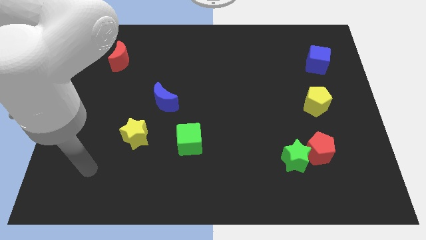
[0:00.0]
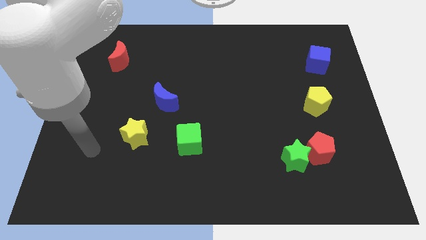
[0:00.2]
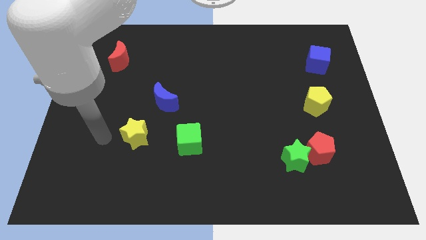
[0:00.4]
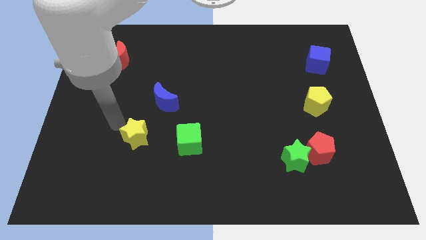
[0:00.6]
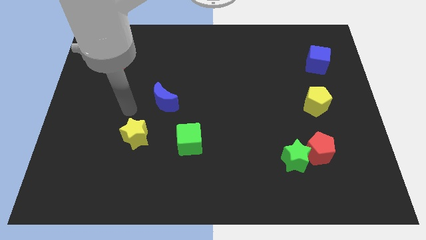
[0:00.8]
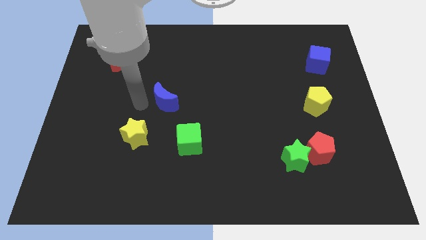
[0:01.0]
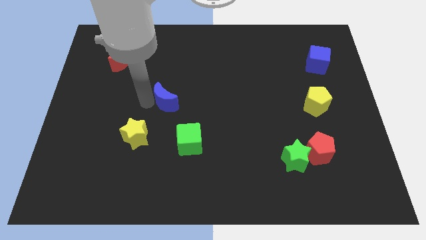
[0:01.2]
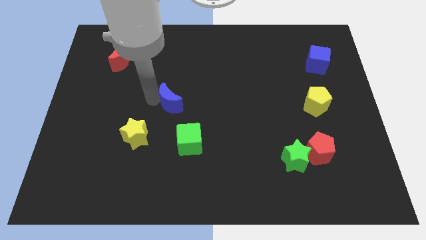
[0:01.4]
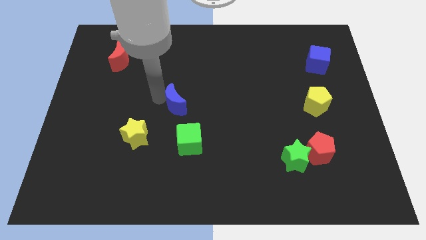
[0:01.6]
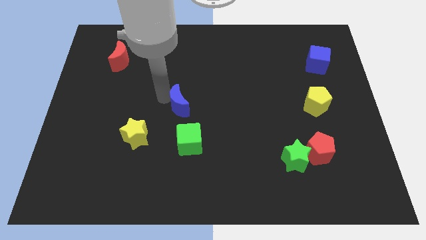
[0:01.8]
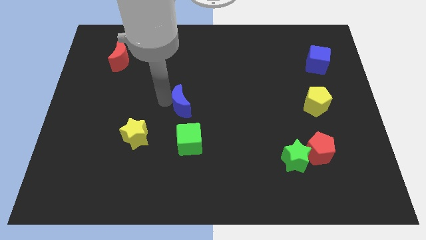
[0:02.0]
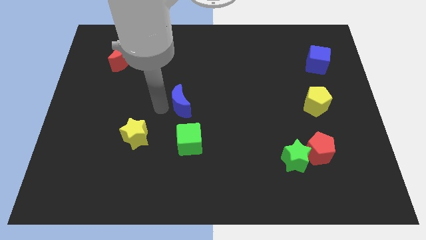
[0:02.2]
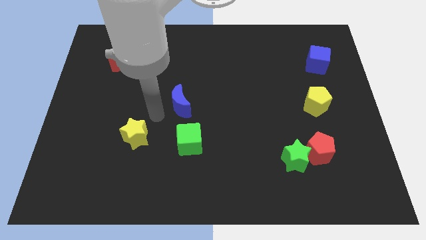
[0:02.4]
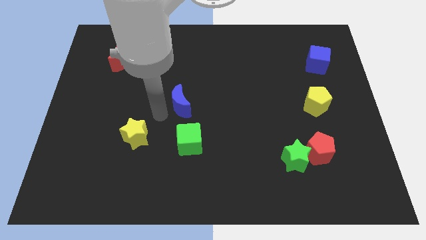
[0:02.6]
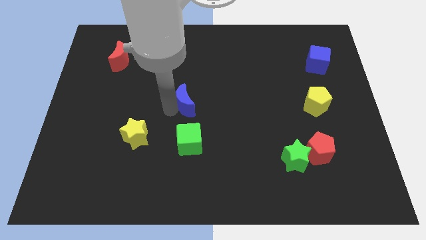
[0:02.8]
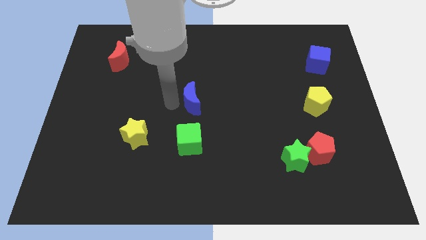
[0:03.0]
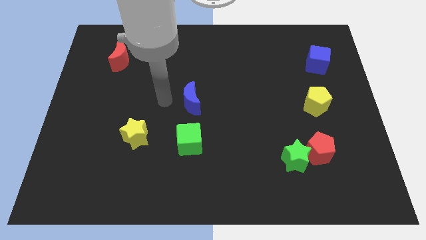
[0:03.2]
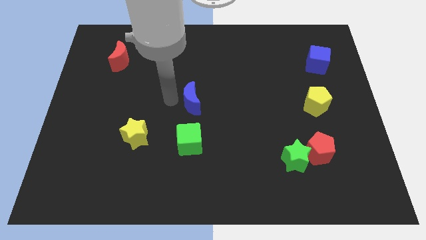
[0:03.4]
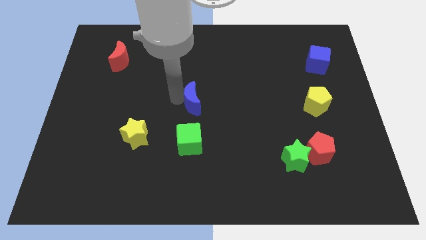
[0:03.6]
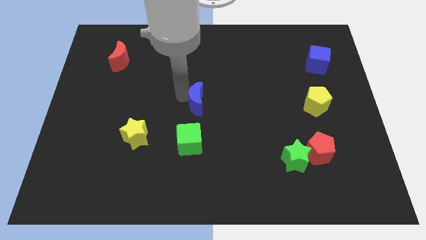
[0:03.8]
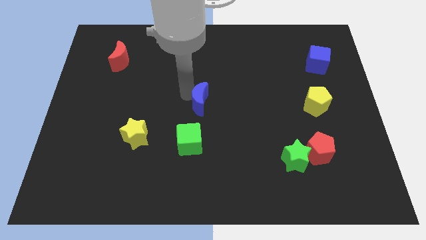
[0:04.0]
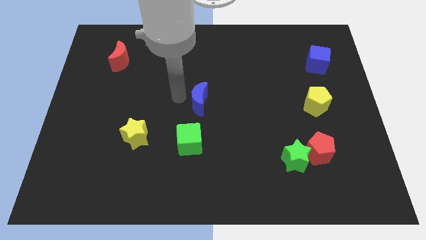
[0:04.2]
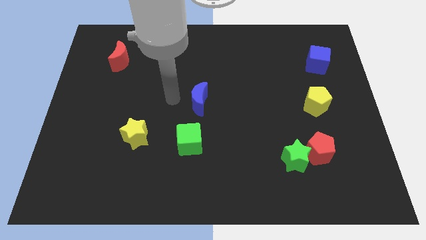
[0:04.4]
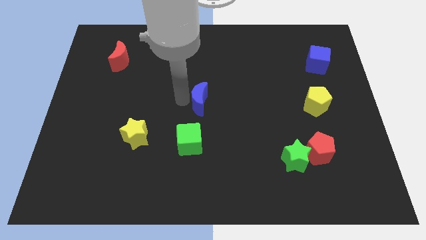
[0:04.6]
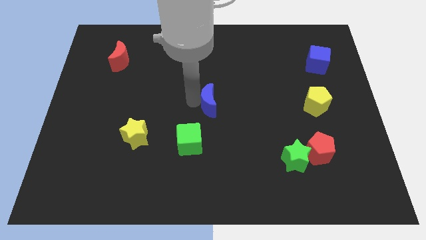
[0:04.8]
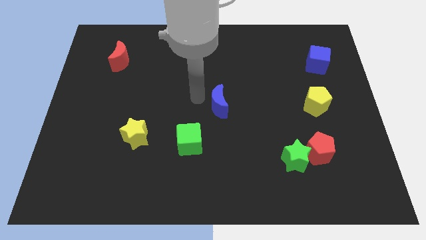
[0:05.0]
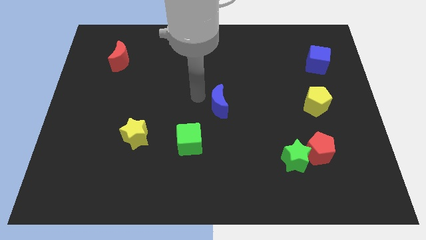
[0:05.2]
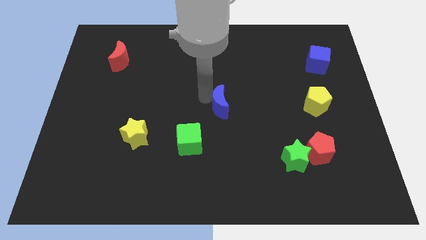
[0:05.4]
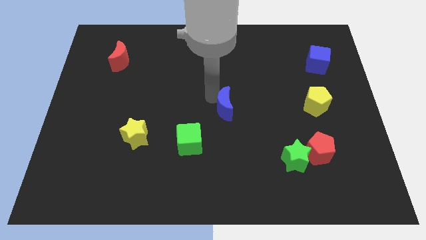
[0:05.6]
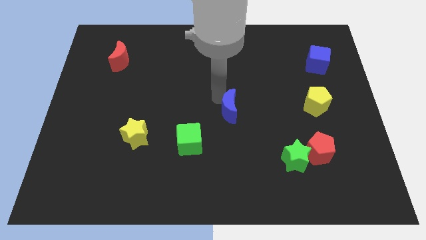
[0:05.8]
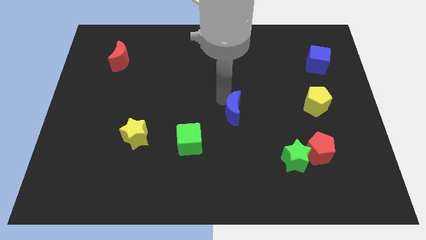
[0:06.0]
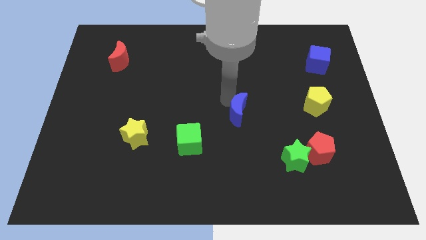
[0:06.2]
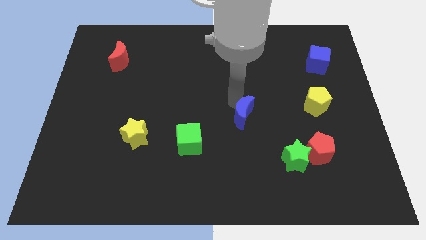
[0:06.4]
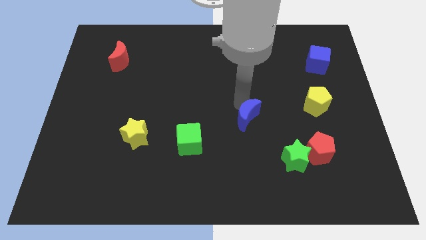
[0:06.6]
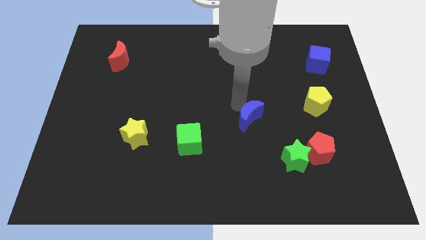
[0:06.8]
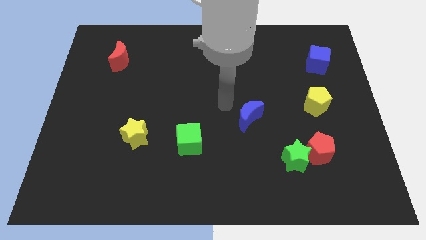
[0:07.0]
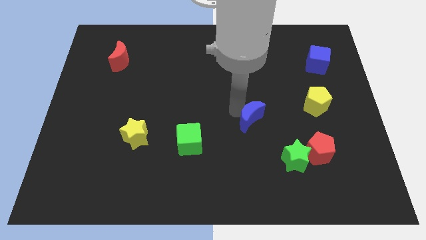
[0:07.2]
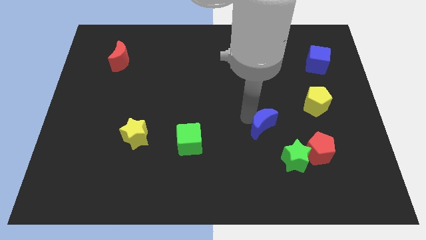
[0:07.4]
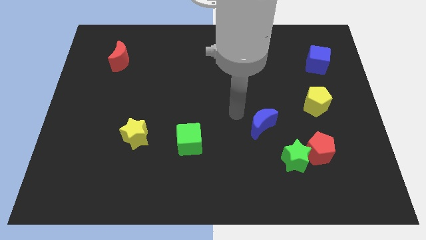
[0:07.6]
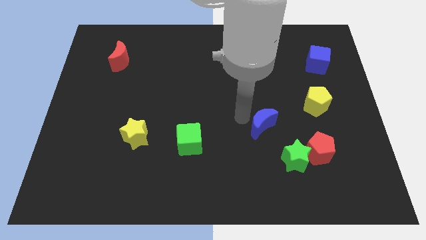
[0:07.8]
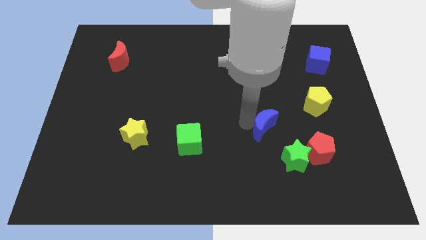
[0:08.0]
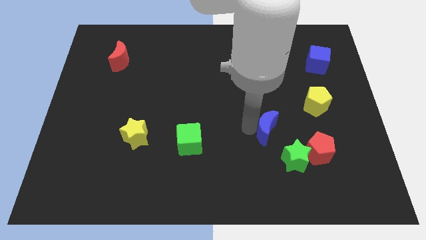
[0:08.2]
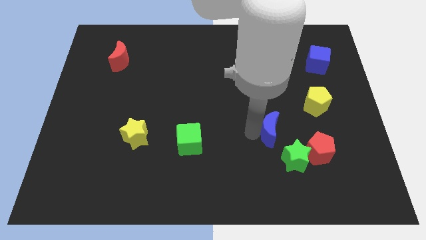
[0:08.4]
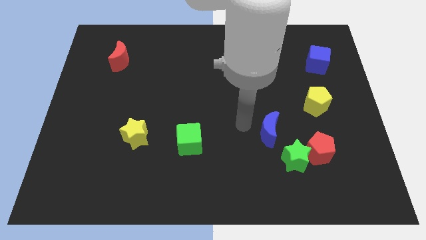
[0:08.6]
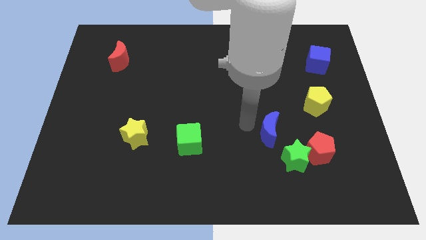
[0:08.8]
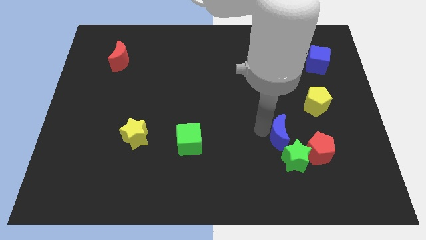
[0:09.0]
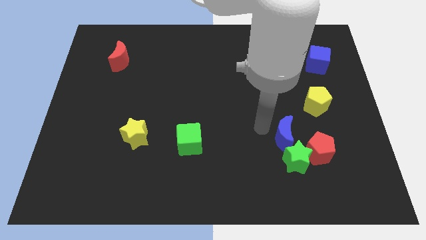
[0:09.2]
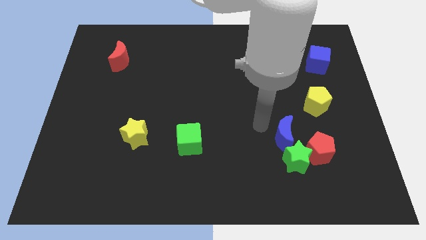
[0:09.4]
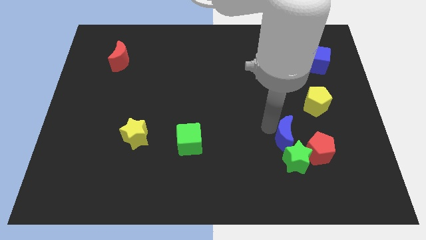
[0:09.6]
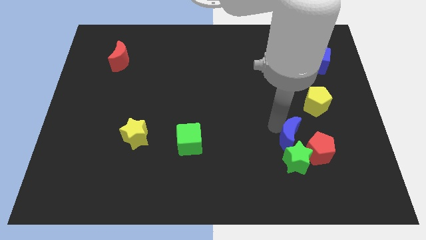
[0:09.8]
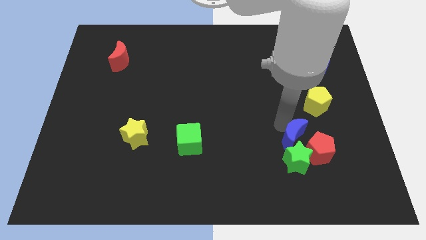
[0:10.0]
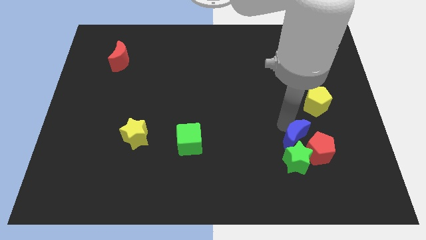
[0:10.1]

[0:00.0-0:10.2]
slide the blue moon towards the red pentagon

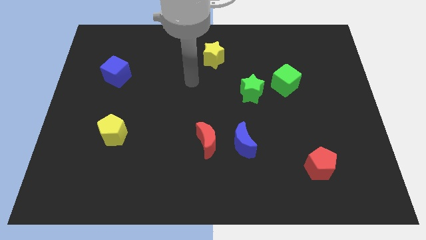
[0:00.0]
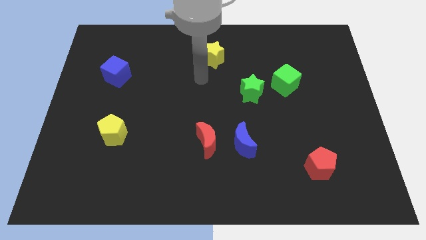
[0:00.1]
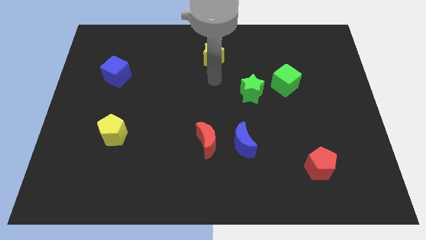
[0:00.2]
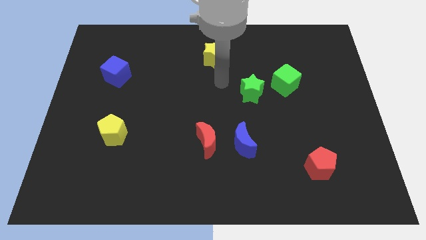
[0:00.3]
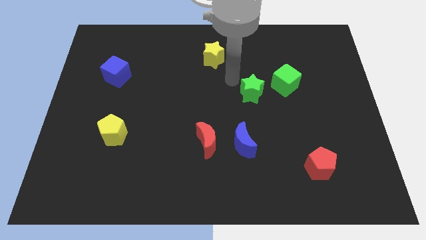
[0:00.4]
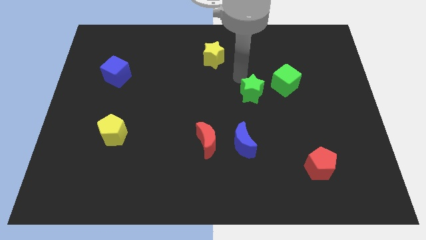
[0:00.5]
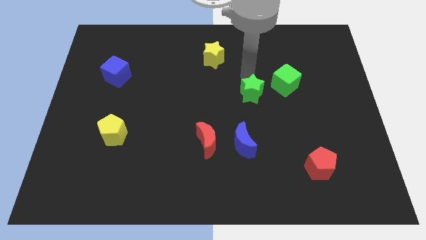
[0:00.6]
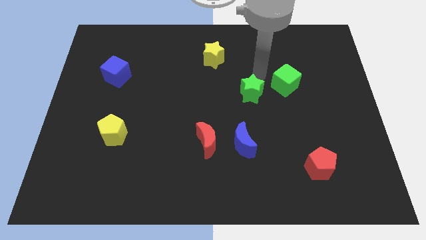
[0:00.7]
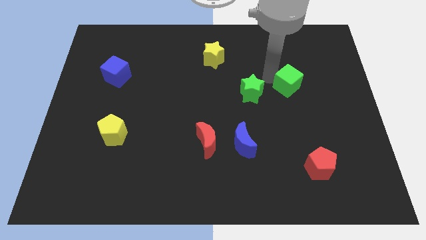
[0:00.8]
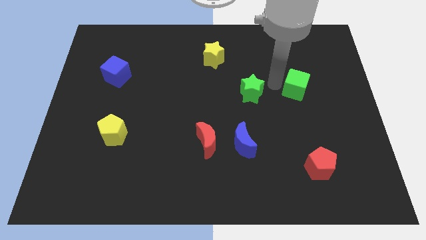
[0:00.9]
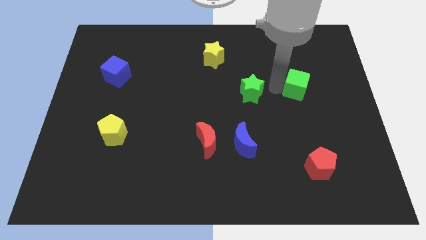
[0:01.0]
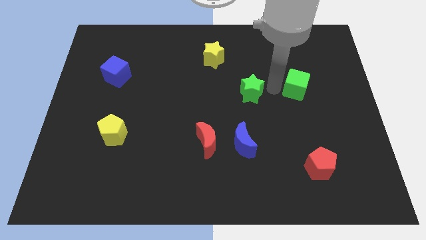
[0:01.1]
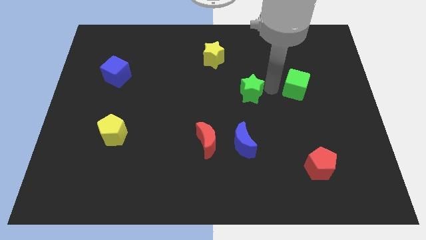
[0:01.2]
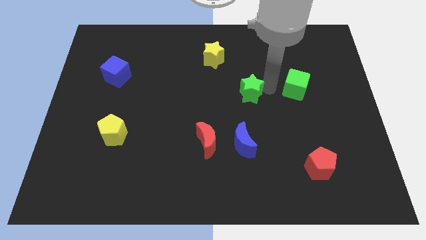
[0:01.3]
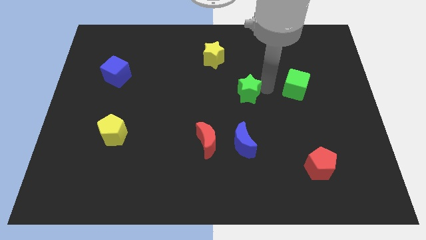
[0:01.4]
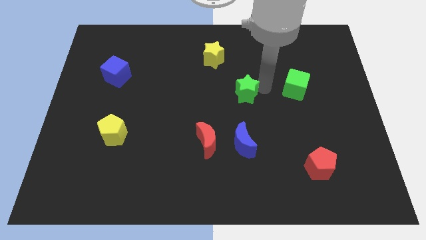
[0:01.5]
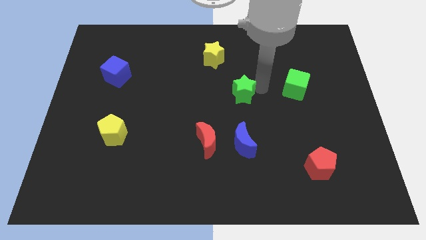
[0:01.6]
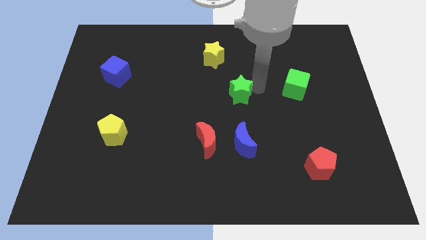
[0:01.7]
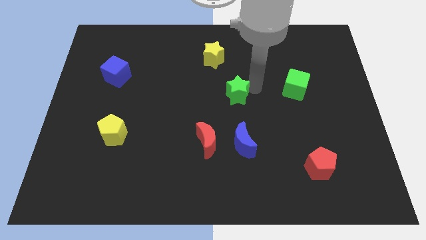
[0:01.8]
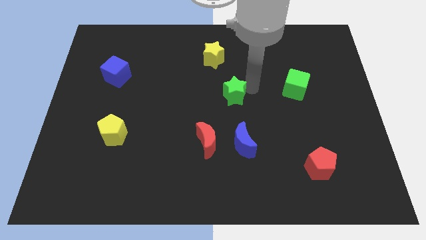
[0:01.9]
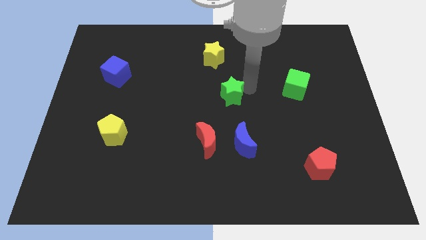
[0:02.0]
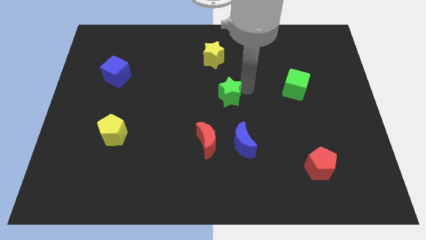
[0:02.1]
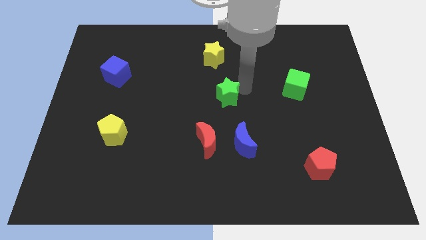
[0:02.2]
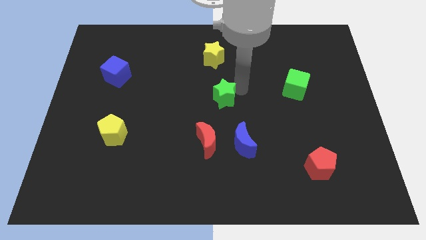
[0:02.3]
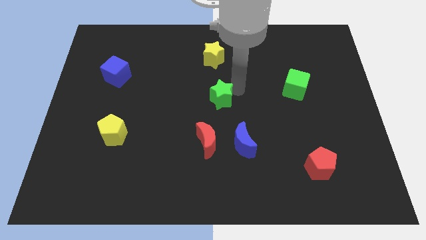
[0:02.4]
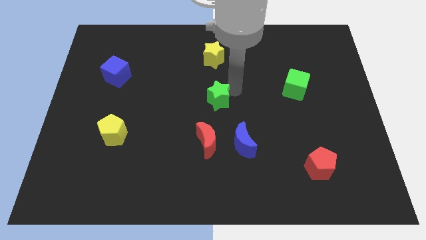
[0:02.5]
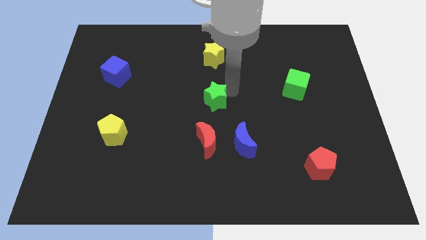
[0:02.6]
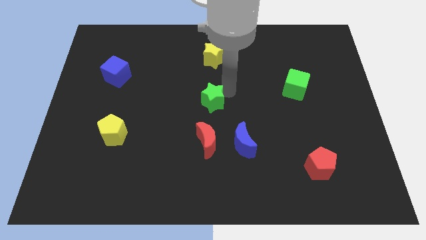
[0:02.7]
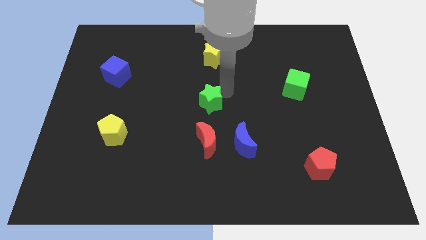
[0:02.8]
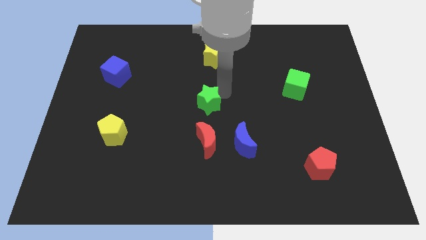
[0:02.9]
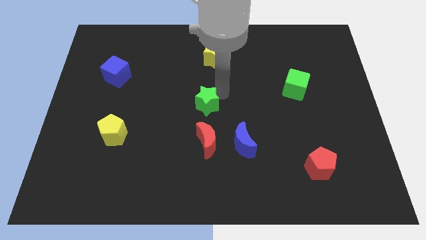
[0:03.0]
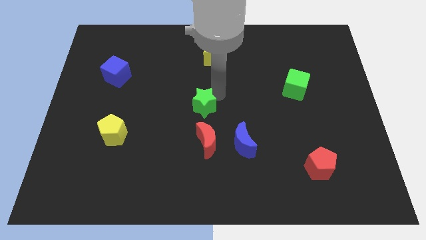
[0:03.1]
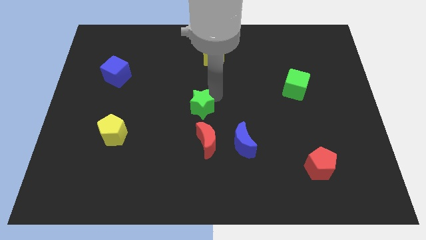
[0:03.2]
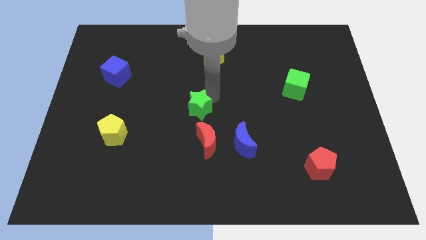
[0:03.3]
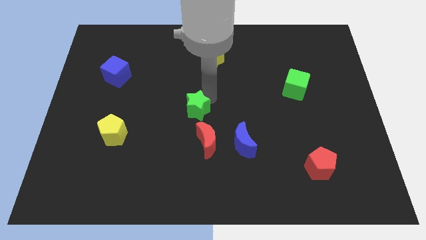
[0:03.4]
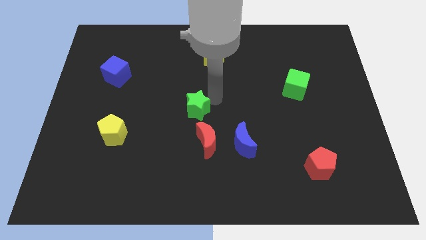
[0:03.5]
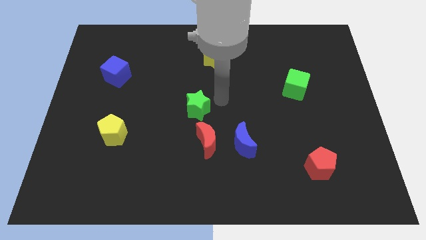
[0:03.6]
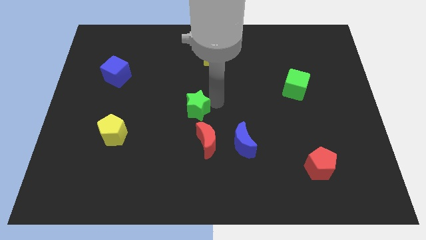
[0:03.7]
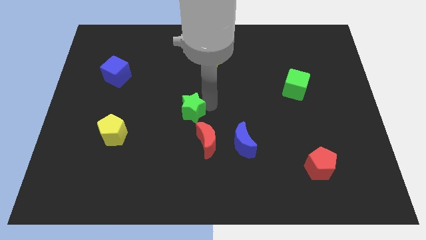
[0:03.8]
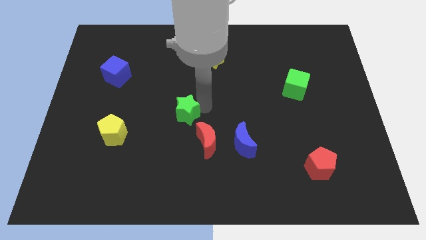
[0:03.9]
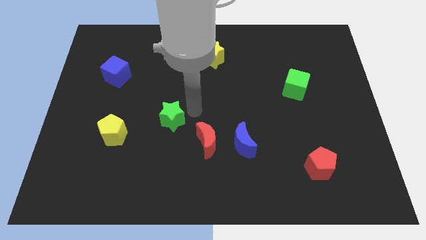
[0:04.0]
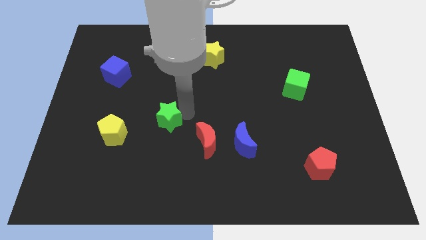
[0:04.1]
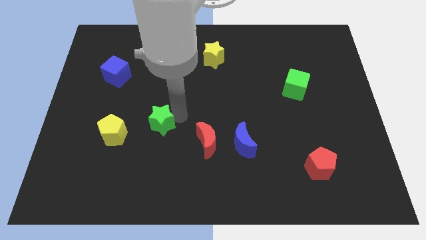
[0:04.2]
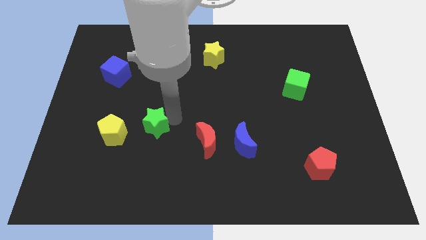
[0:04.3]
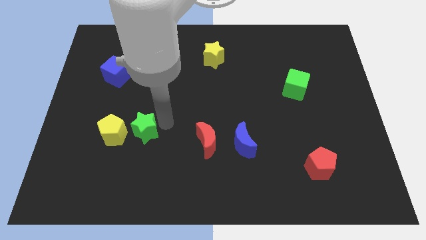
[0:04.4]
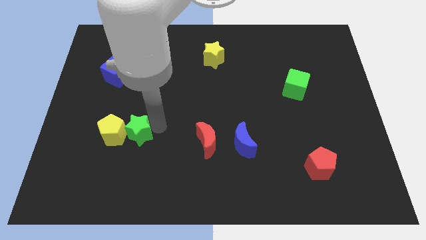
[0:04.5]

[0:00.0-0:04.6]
put the green star to the yellow pentagon
